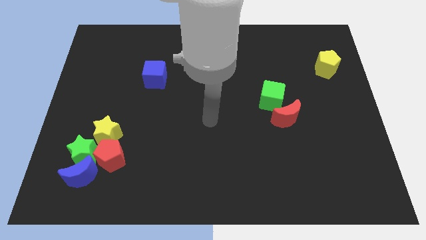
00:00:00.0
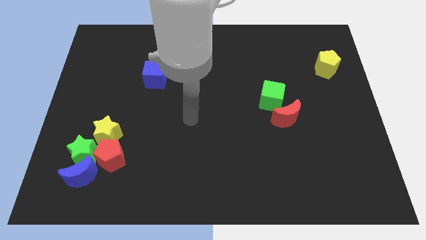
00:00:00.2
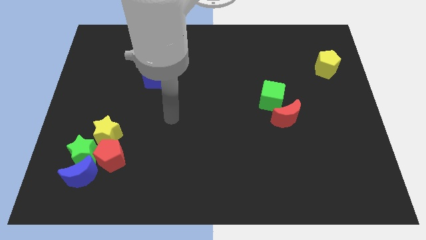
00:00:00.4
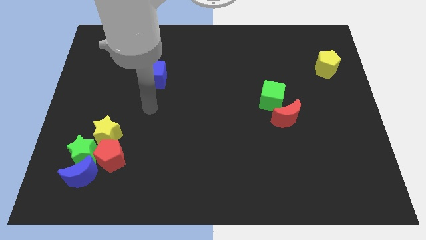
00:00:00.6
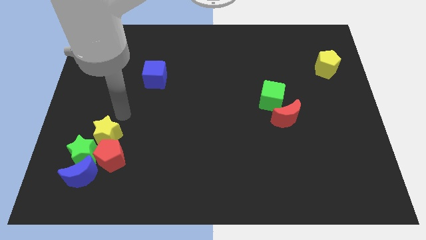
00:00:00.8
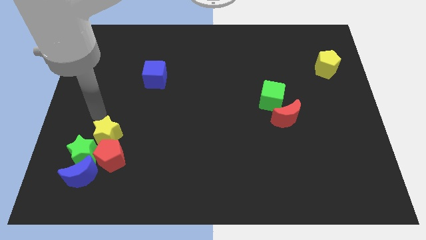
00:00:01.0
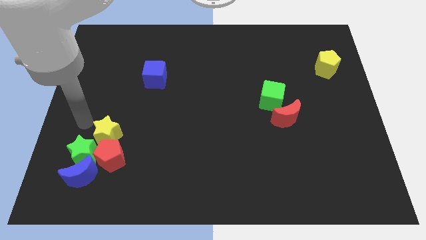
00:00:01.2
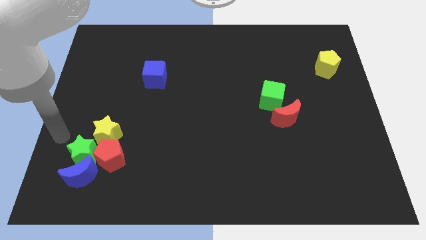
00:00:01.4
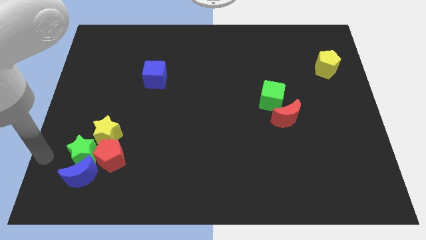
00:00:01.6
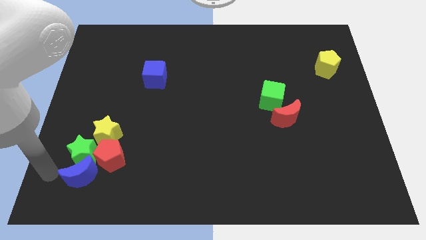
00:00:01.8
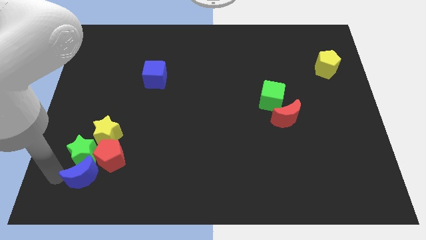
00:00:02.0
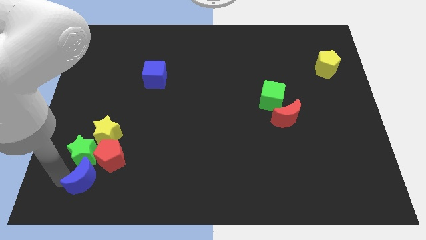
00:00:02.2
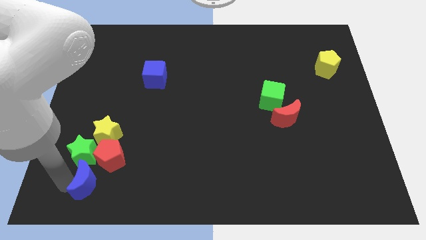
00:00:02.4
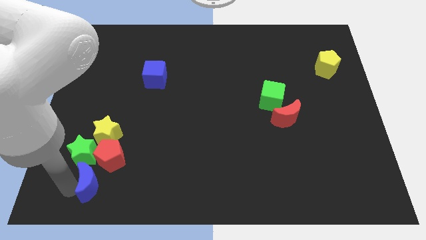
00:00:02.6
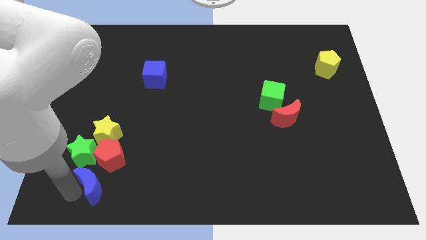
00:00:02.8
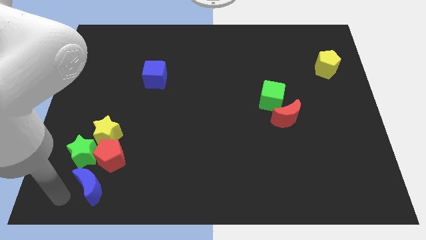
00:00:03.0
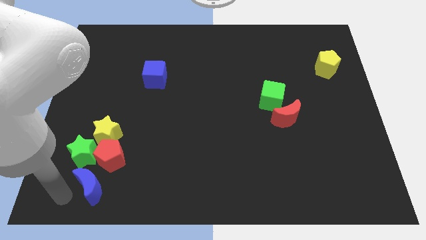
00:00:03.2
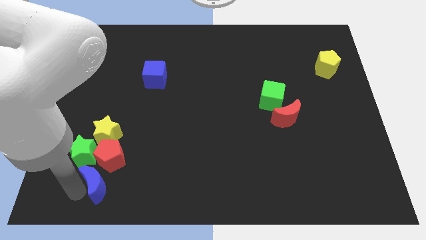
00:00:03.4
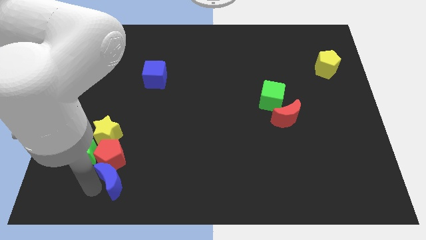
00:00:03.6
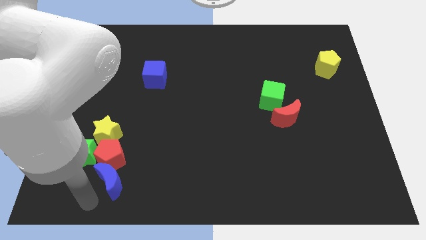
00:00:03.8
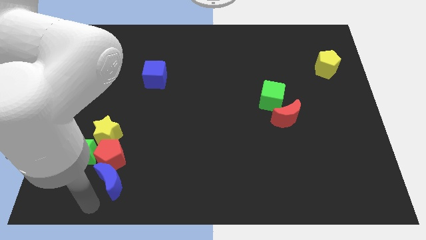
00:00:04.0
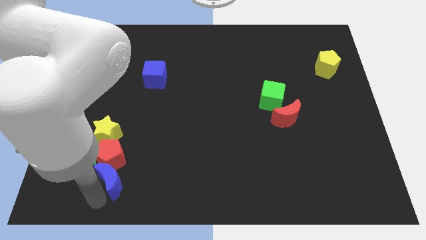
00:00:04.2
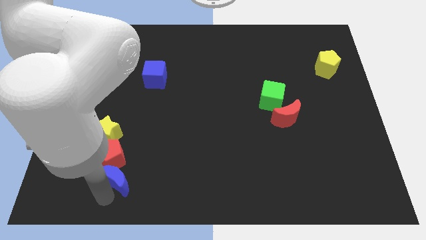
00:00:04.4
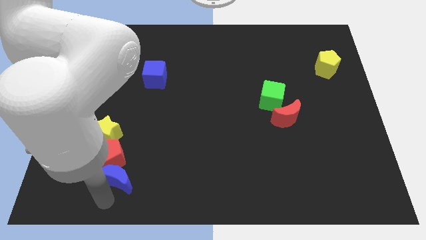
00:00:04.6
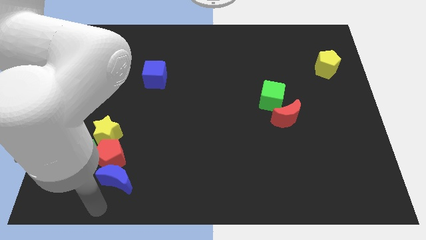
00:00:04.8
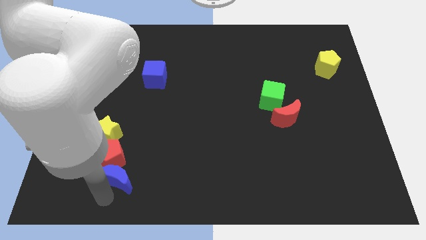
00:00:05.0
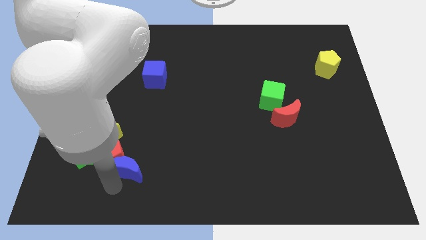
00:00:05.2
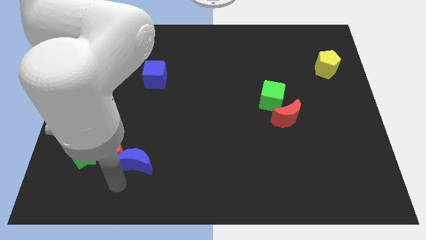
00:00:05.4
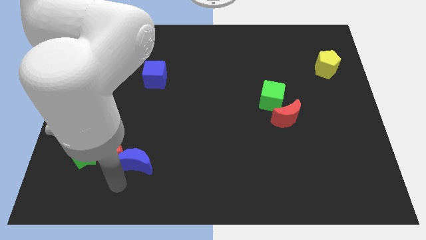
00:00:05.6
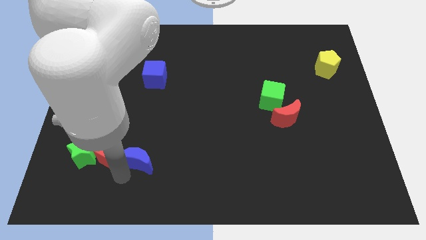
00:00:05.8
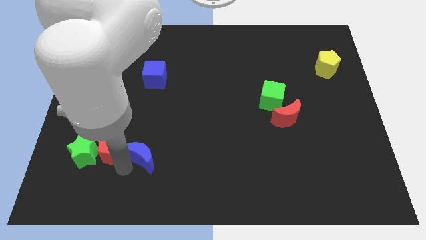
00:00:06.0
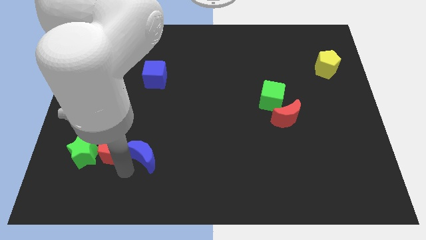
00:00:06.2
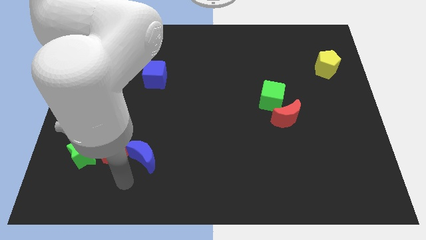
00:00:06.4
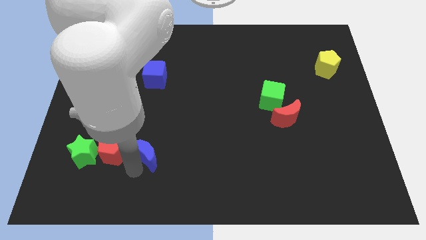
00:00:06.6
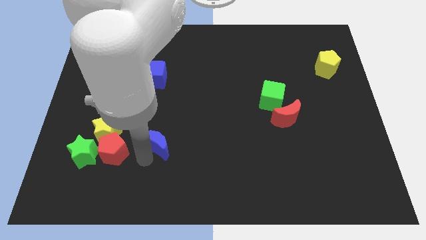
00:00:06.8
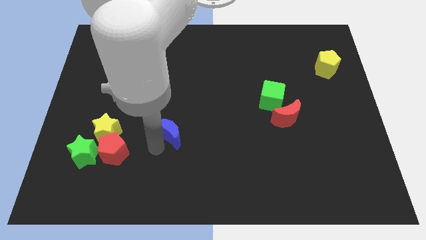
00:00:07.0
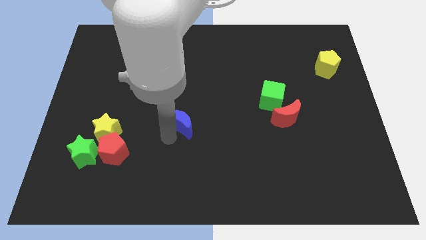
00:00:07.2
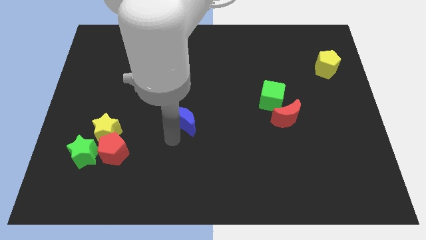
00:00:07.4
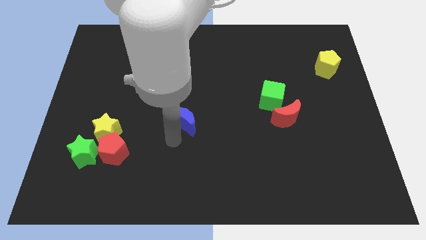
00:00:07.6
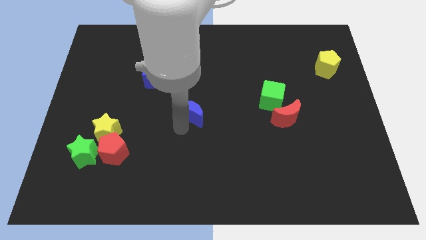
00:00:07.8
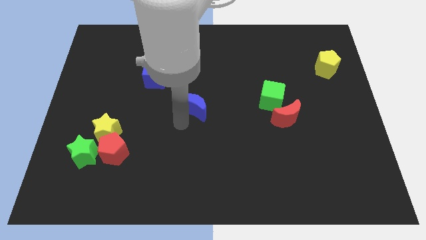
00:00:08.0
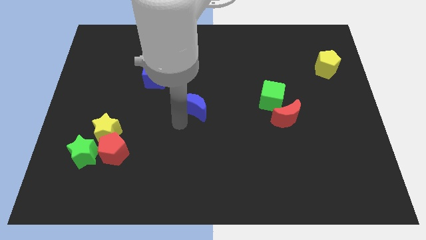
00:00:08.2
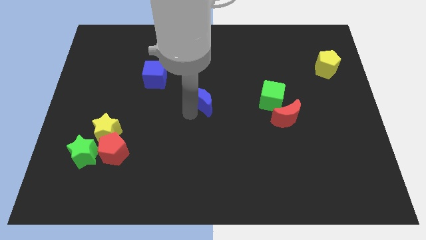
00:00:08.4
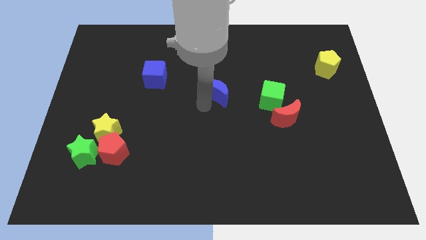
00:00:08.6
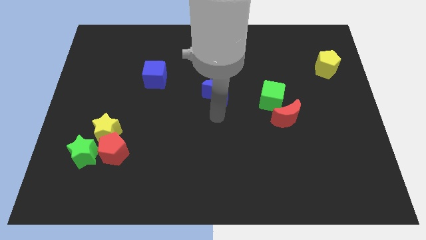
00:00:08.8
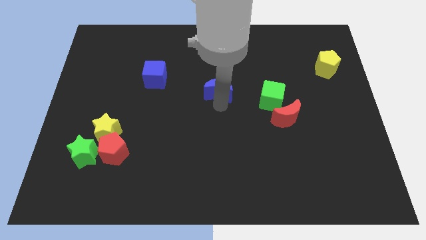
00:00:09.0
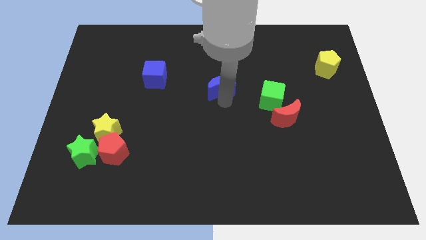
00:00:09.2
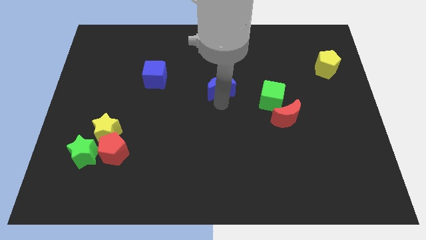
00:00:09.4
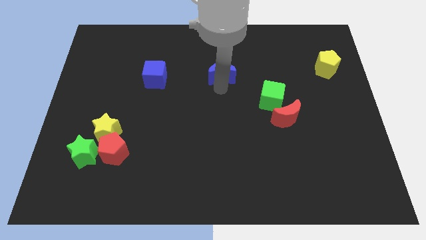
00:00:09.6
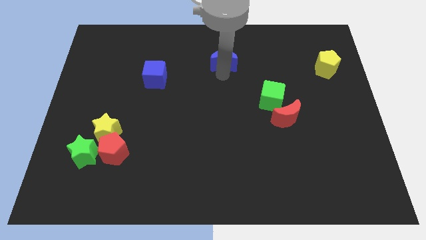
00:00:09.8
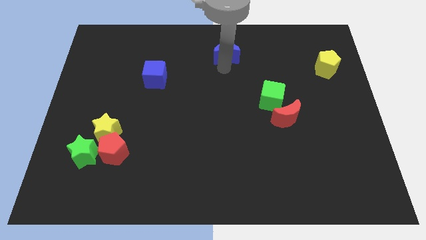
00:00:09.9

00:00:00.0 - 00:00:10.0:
put the blue moon to the towards your base

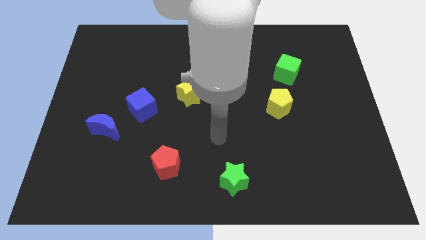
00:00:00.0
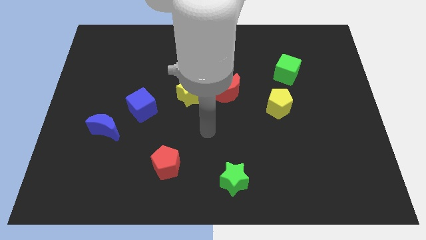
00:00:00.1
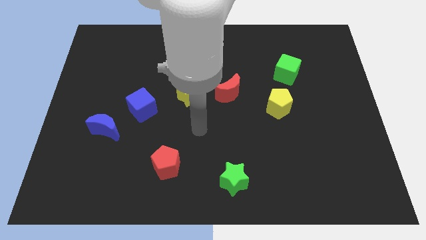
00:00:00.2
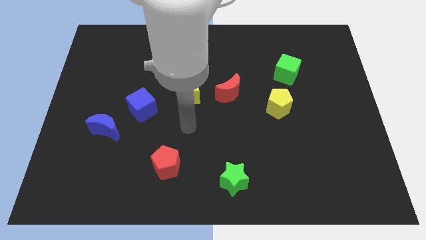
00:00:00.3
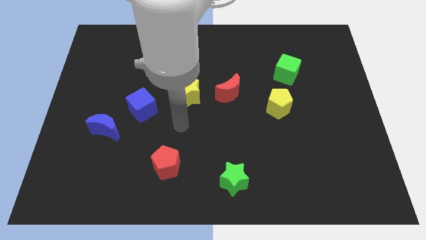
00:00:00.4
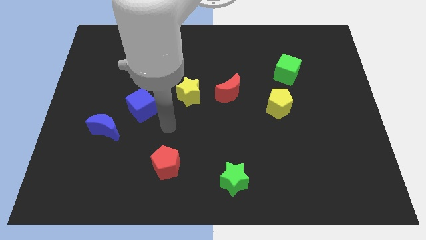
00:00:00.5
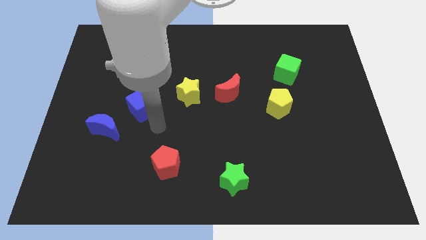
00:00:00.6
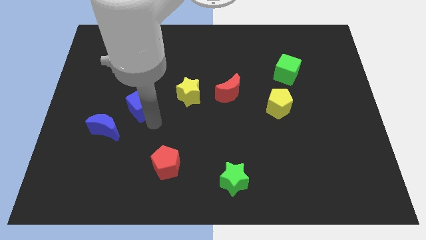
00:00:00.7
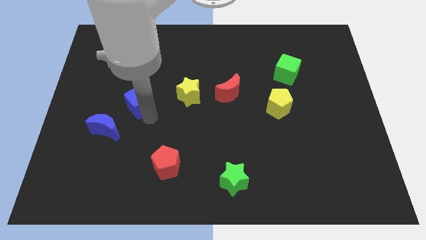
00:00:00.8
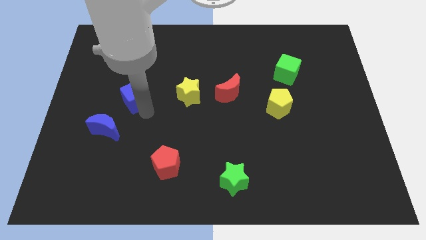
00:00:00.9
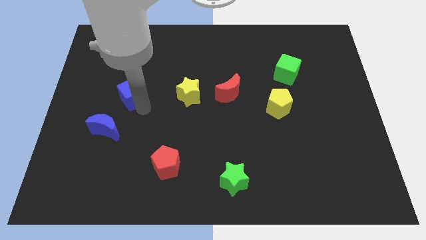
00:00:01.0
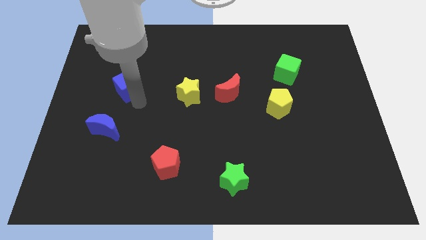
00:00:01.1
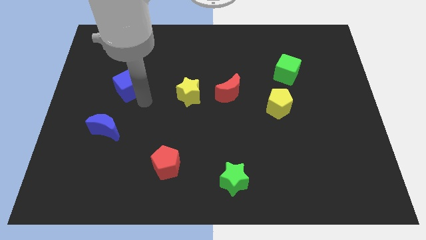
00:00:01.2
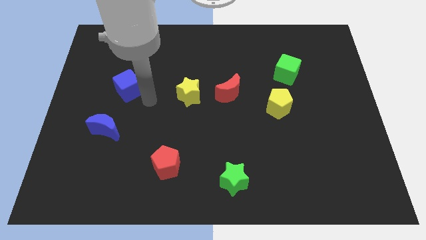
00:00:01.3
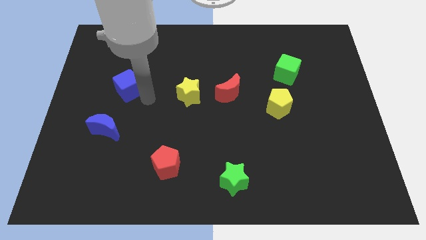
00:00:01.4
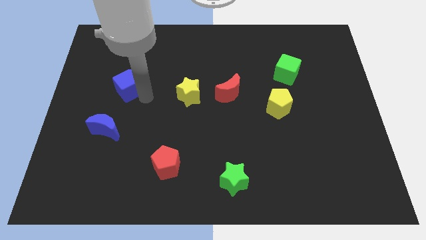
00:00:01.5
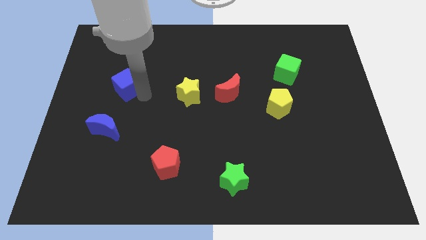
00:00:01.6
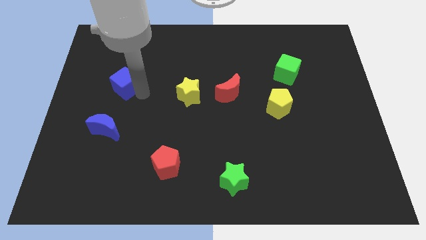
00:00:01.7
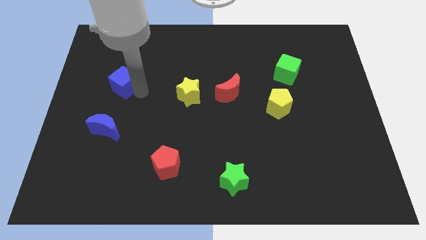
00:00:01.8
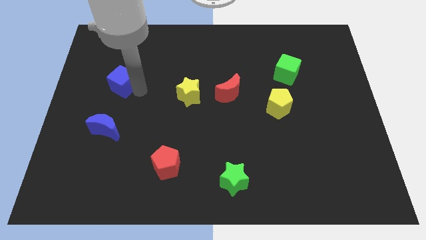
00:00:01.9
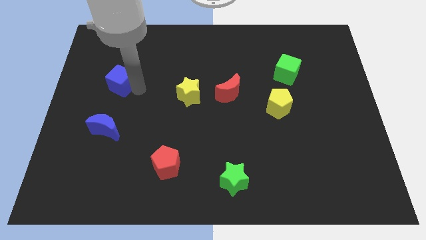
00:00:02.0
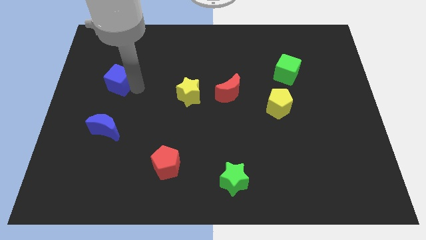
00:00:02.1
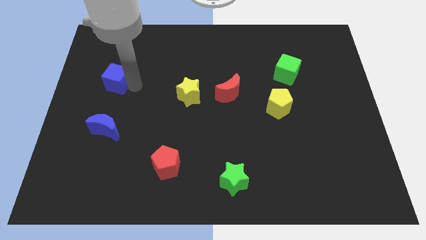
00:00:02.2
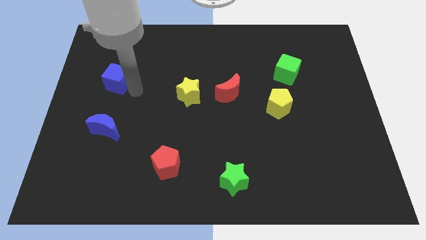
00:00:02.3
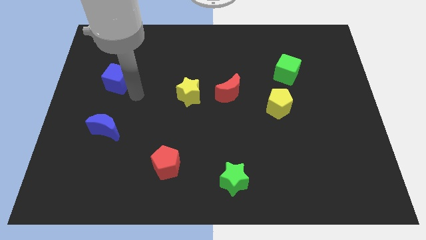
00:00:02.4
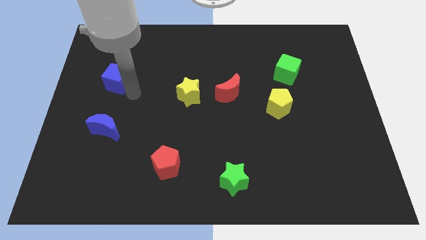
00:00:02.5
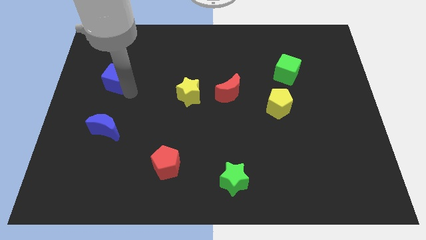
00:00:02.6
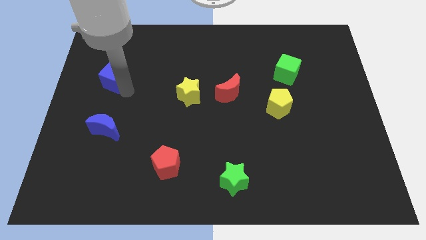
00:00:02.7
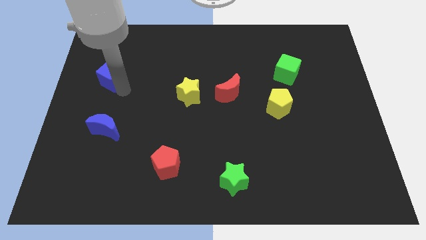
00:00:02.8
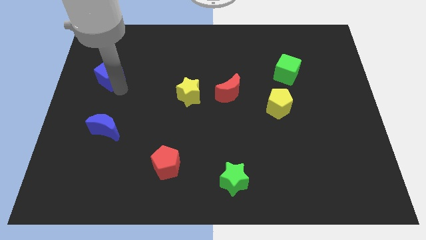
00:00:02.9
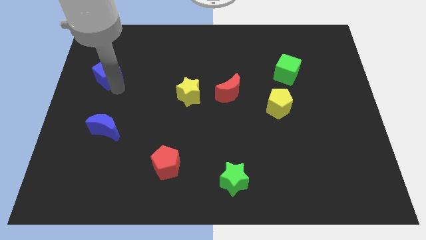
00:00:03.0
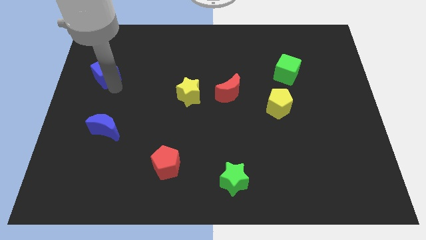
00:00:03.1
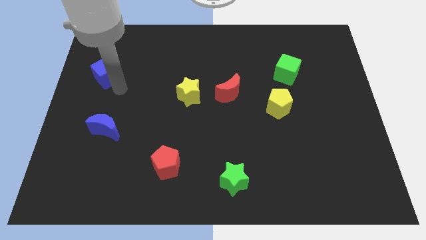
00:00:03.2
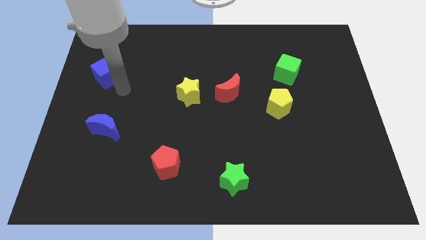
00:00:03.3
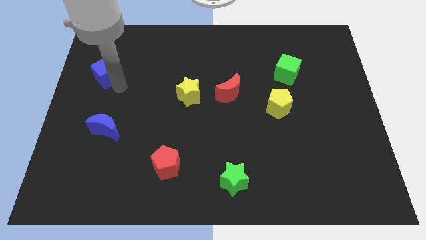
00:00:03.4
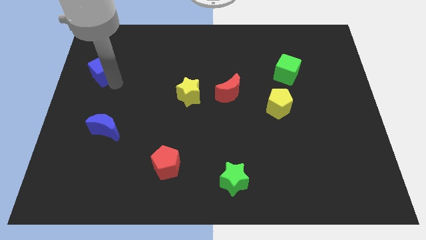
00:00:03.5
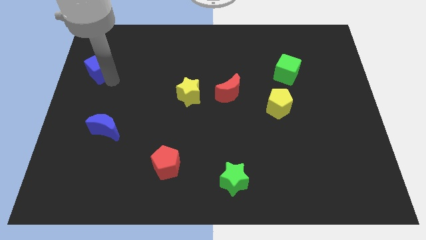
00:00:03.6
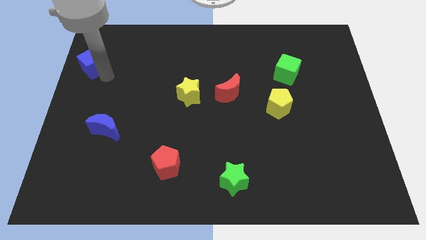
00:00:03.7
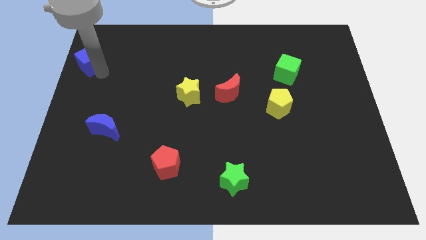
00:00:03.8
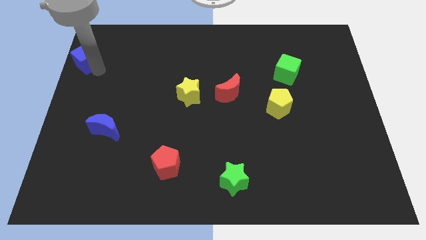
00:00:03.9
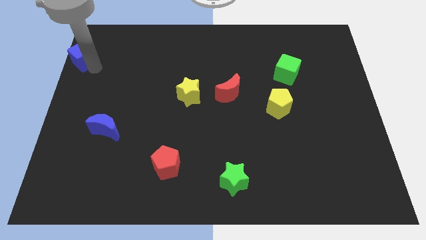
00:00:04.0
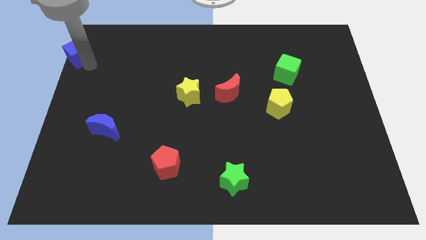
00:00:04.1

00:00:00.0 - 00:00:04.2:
slide the blue cube to the top left
